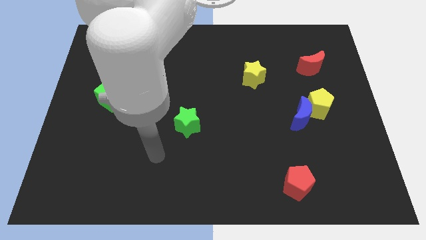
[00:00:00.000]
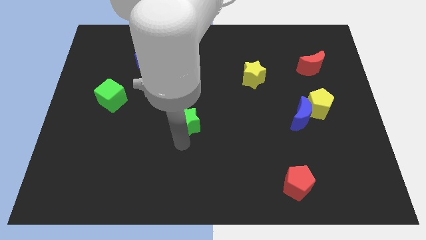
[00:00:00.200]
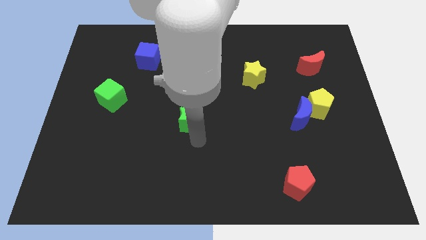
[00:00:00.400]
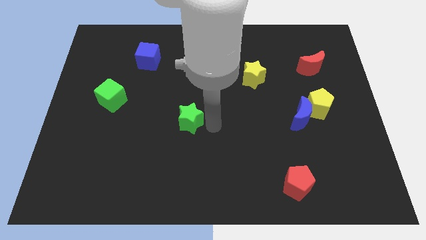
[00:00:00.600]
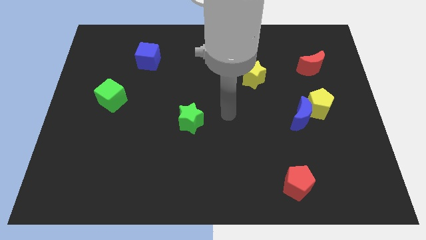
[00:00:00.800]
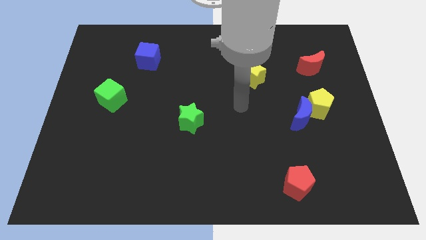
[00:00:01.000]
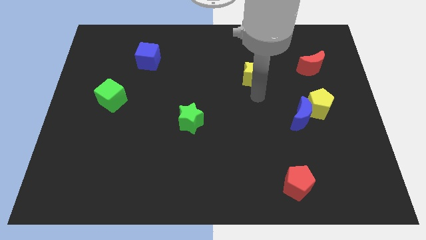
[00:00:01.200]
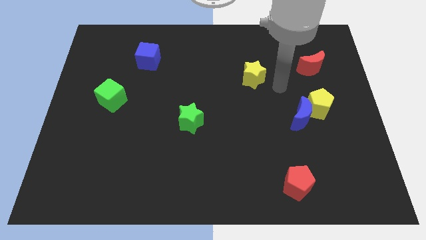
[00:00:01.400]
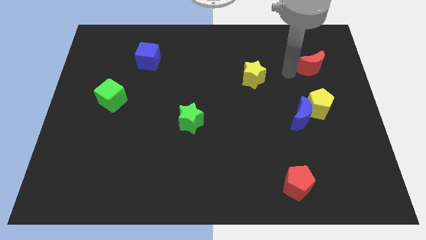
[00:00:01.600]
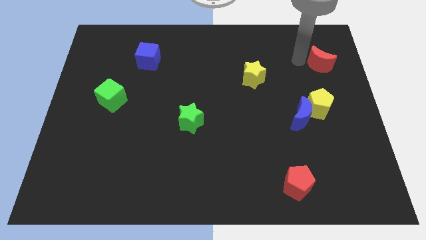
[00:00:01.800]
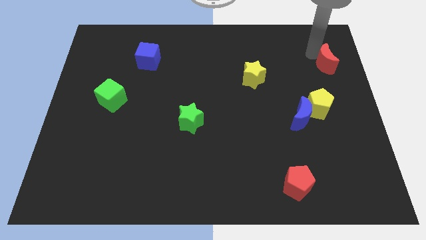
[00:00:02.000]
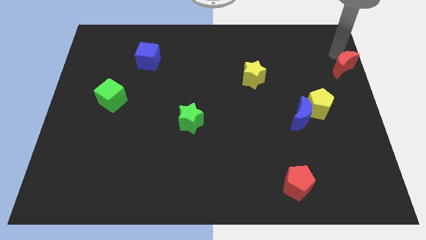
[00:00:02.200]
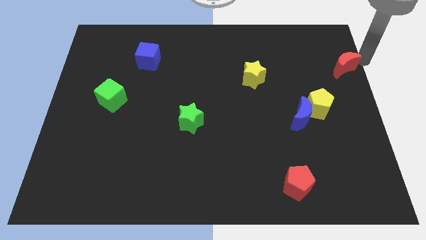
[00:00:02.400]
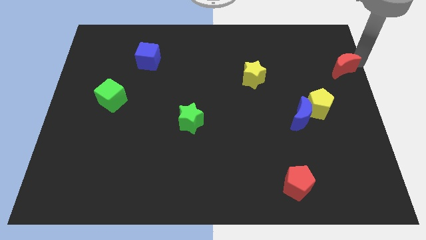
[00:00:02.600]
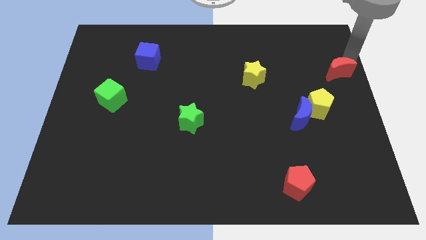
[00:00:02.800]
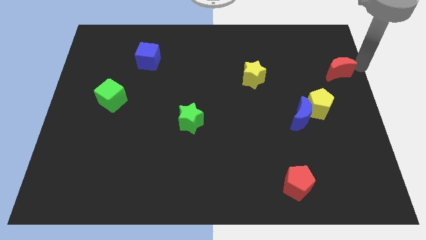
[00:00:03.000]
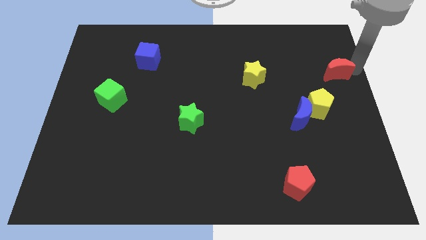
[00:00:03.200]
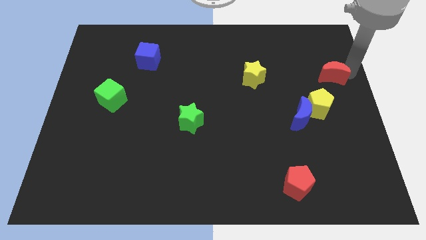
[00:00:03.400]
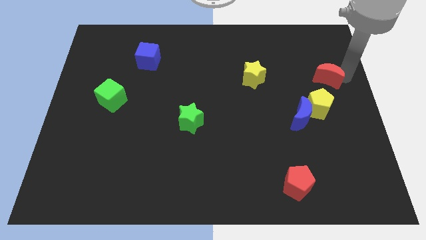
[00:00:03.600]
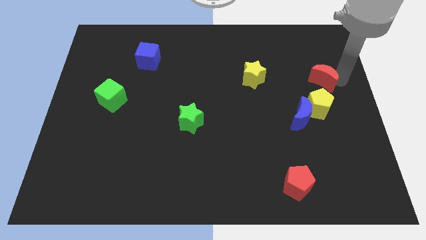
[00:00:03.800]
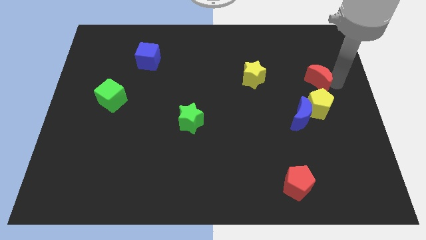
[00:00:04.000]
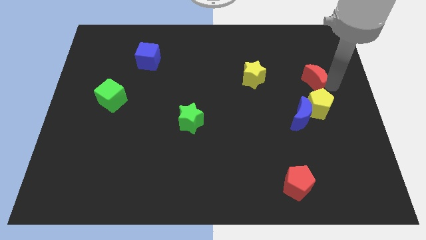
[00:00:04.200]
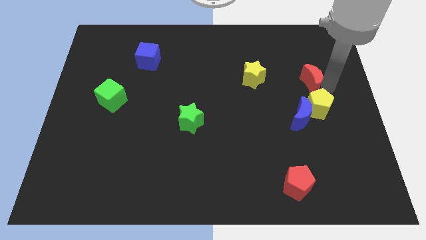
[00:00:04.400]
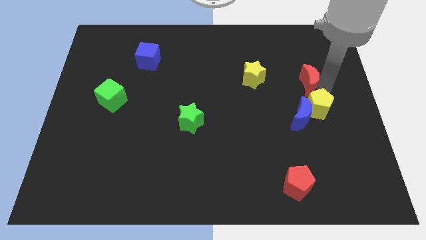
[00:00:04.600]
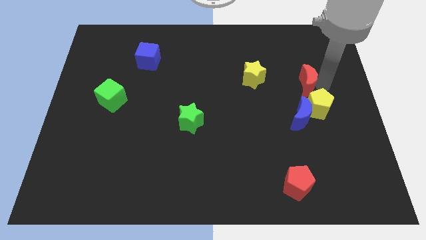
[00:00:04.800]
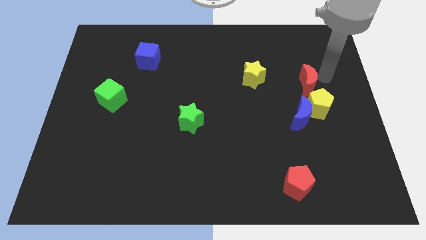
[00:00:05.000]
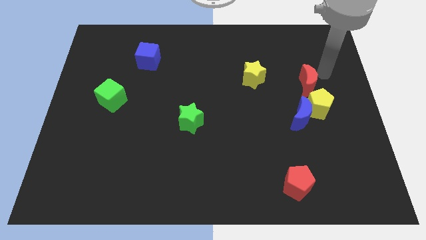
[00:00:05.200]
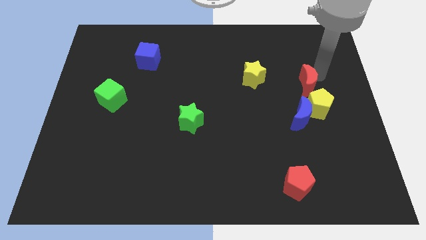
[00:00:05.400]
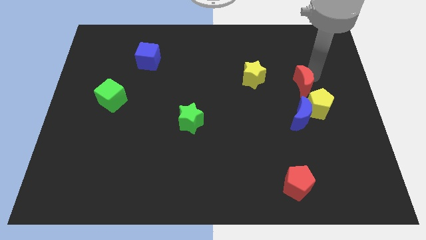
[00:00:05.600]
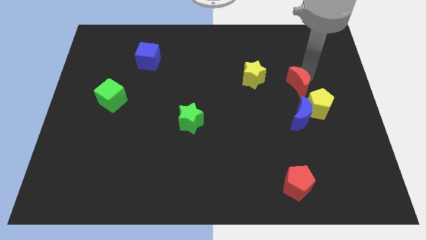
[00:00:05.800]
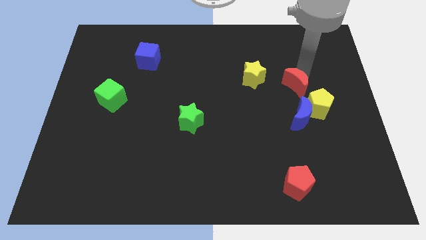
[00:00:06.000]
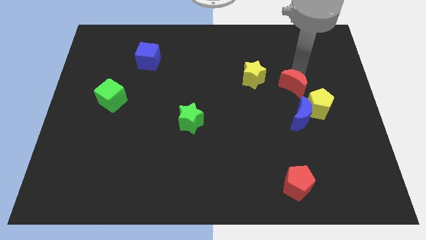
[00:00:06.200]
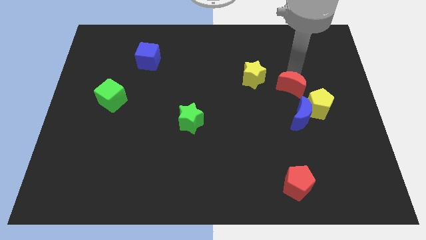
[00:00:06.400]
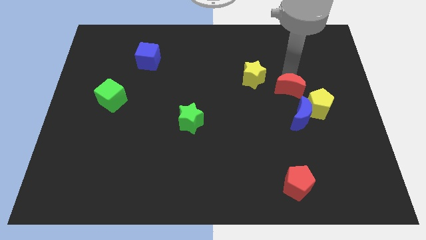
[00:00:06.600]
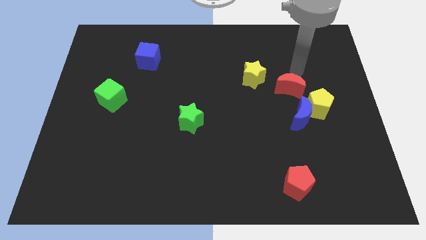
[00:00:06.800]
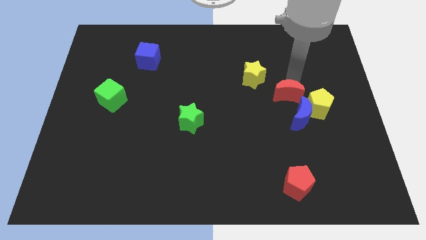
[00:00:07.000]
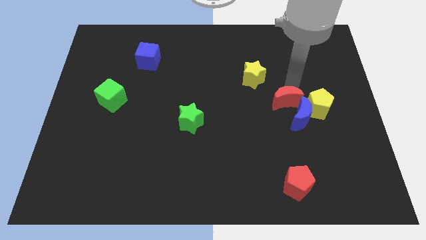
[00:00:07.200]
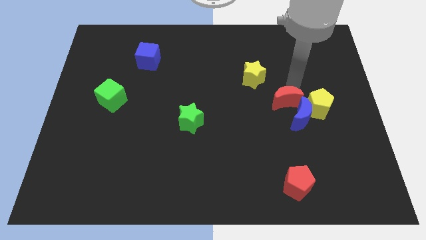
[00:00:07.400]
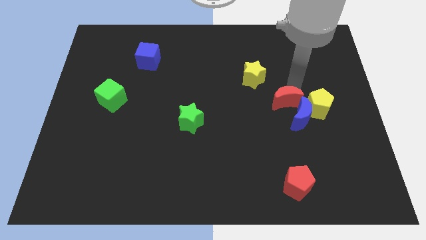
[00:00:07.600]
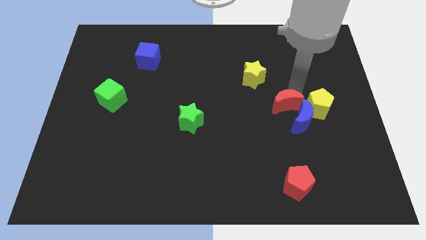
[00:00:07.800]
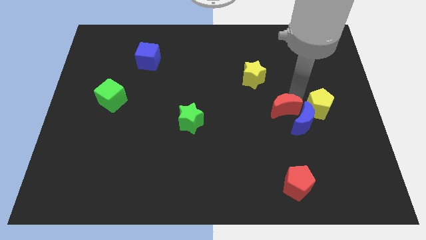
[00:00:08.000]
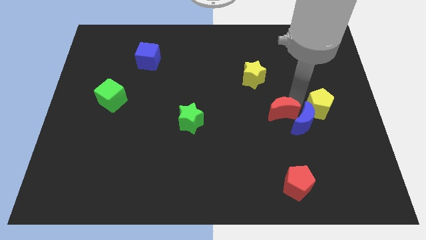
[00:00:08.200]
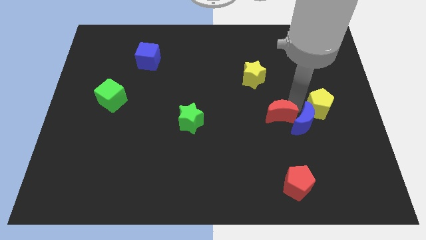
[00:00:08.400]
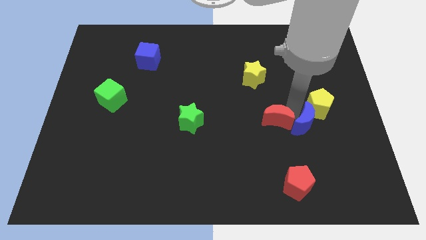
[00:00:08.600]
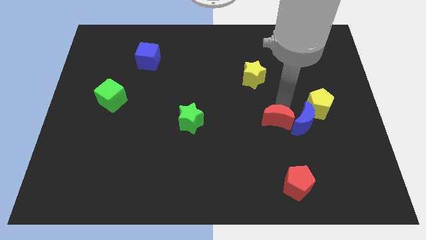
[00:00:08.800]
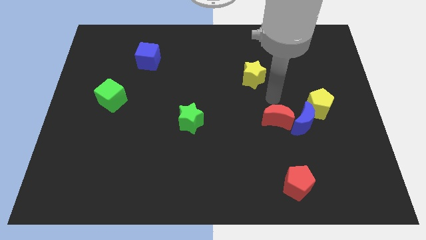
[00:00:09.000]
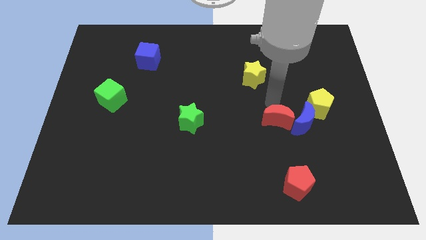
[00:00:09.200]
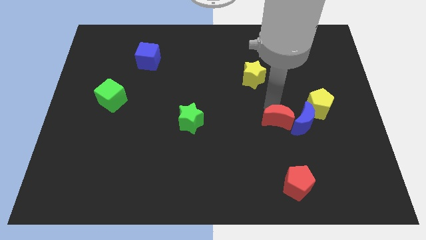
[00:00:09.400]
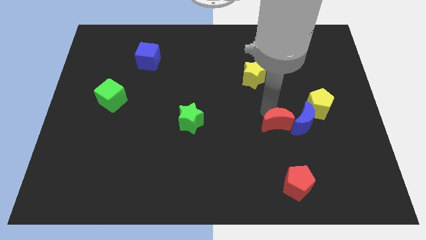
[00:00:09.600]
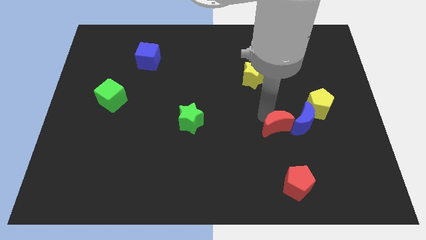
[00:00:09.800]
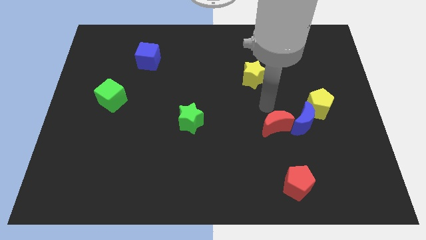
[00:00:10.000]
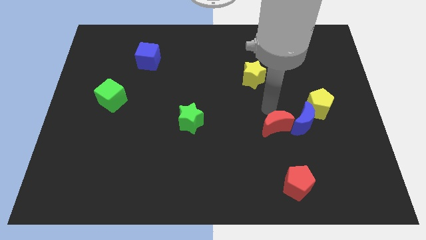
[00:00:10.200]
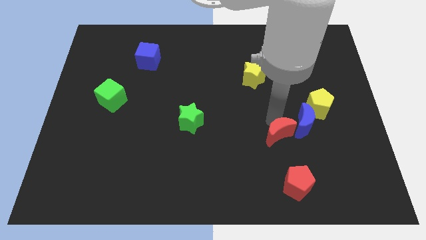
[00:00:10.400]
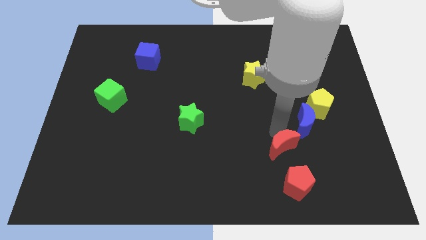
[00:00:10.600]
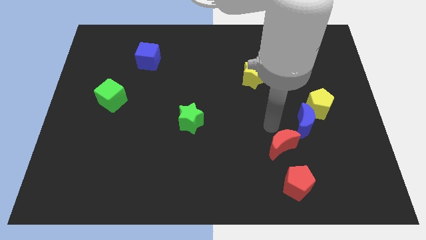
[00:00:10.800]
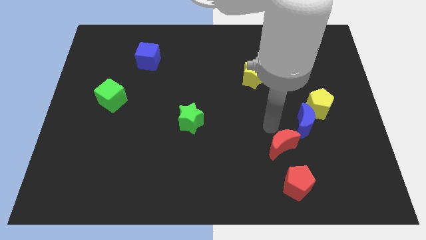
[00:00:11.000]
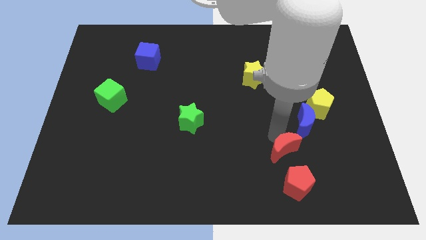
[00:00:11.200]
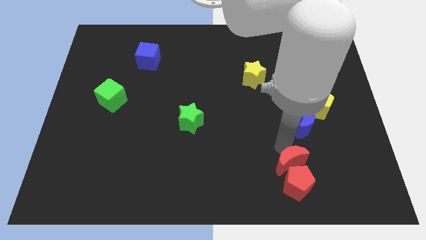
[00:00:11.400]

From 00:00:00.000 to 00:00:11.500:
push the red moon to the red pentagon

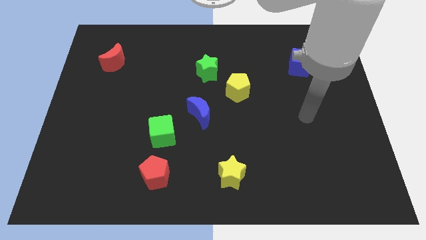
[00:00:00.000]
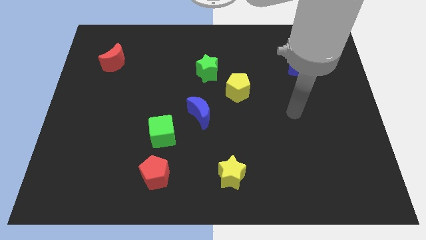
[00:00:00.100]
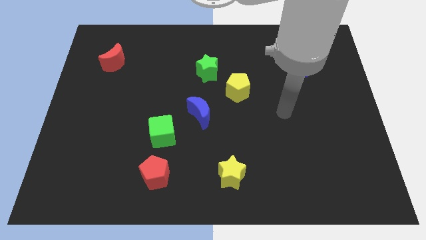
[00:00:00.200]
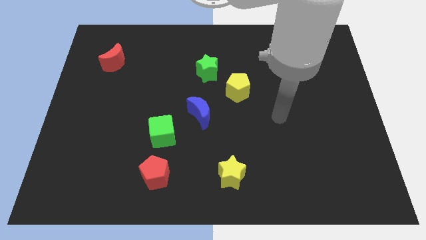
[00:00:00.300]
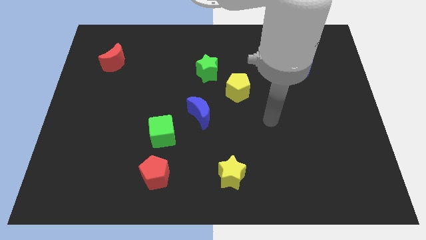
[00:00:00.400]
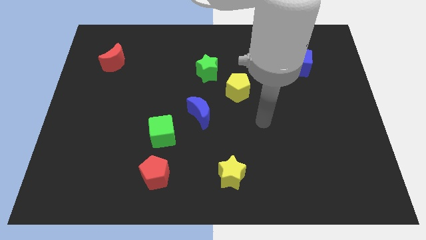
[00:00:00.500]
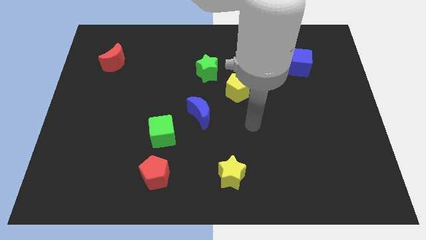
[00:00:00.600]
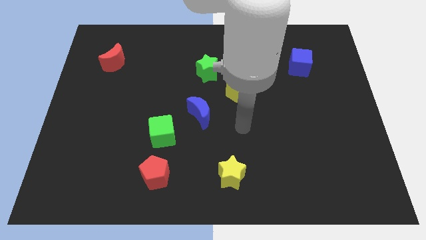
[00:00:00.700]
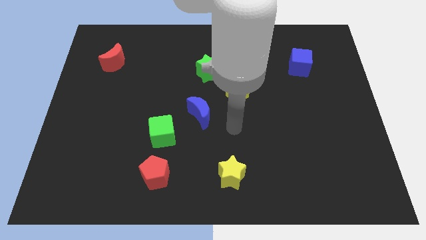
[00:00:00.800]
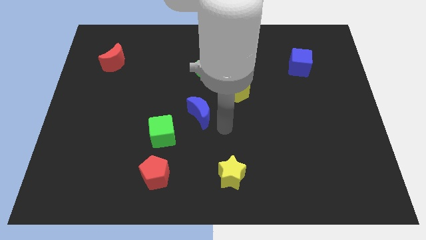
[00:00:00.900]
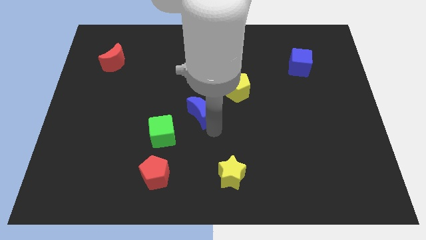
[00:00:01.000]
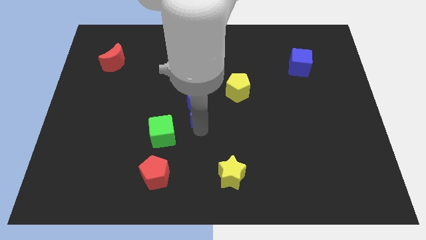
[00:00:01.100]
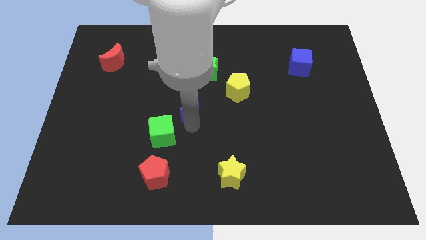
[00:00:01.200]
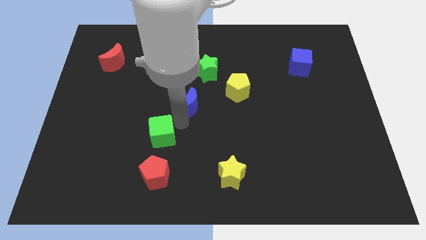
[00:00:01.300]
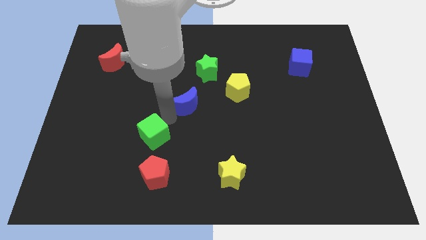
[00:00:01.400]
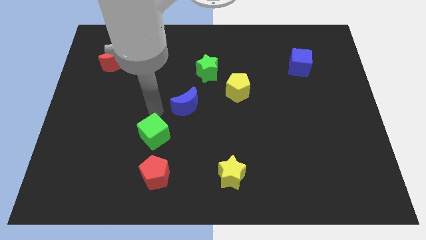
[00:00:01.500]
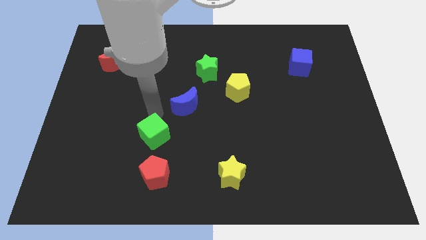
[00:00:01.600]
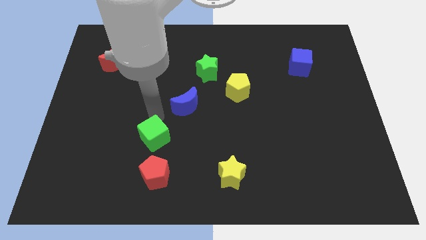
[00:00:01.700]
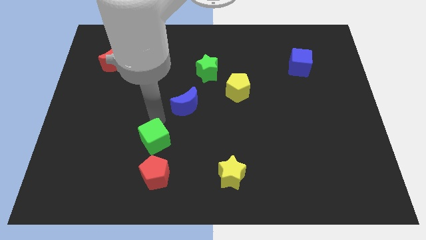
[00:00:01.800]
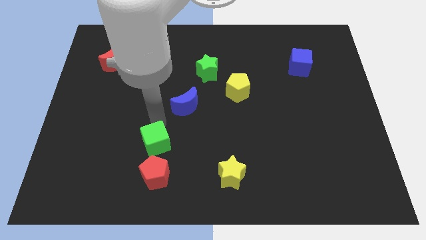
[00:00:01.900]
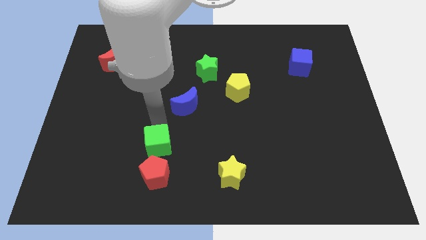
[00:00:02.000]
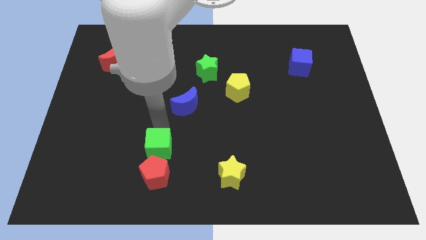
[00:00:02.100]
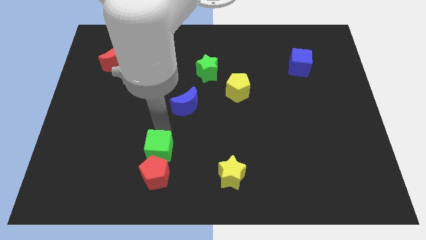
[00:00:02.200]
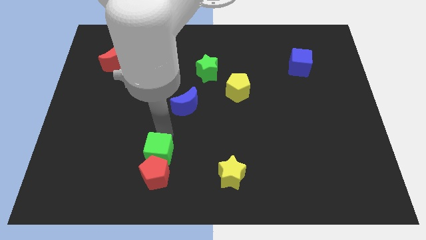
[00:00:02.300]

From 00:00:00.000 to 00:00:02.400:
move the green cube close to the red pentagon
